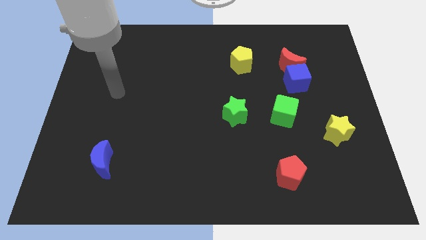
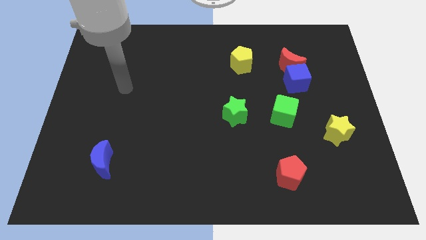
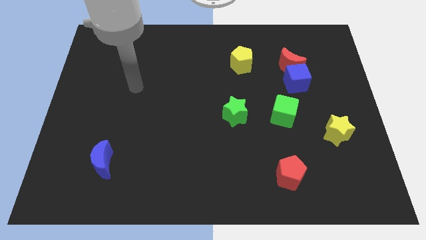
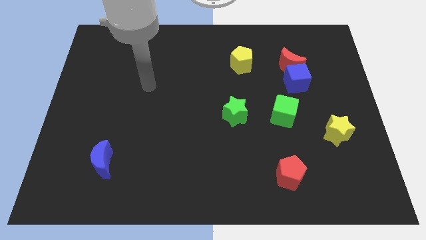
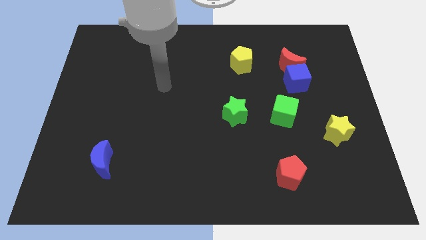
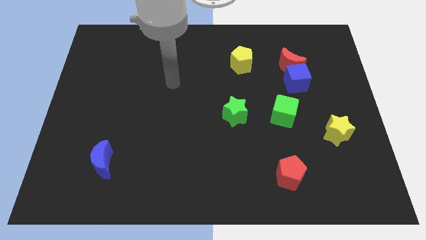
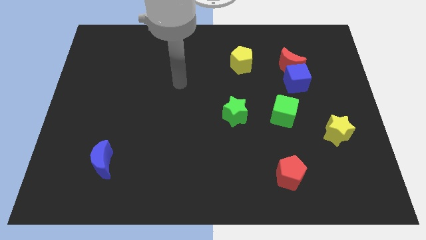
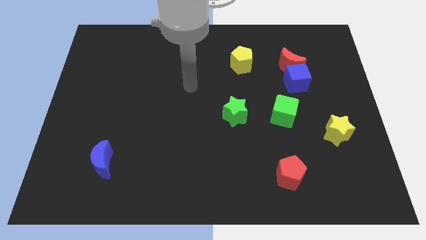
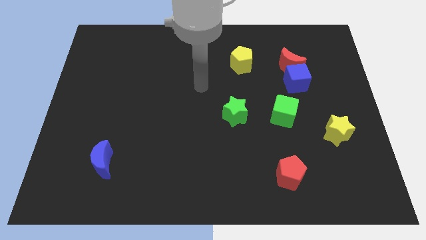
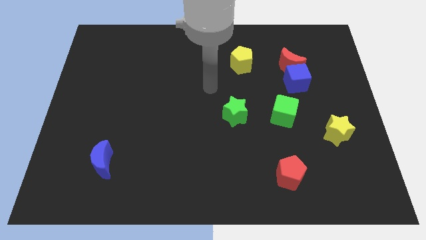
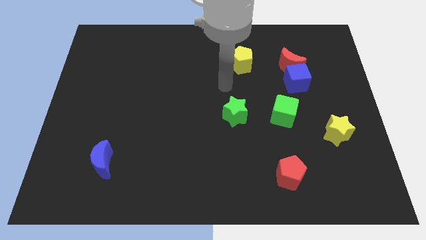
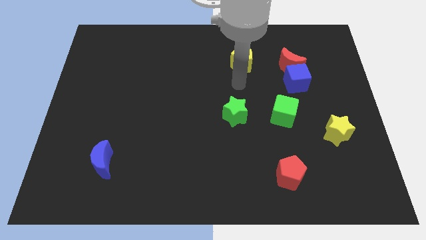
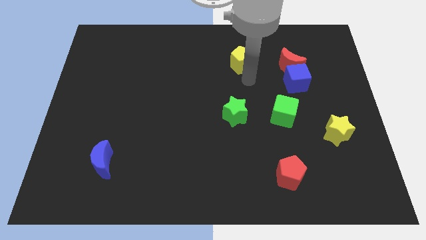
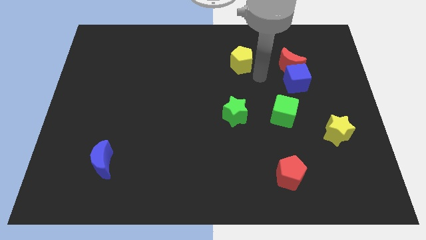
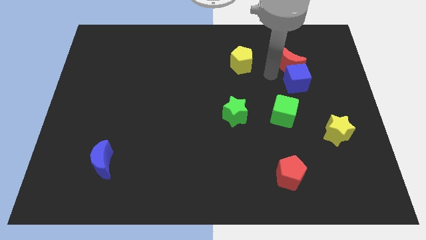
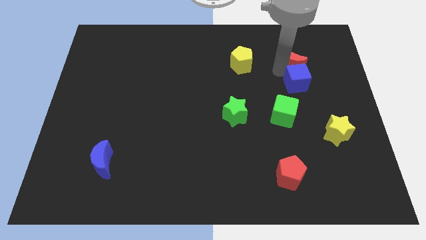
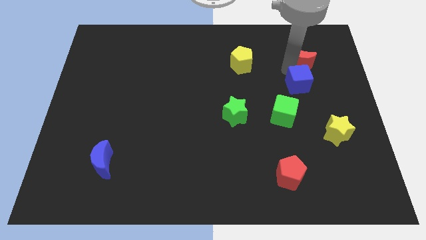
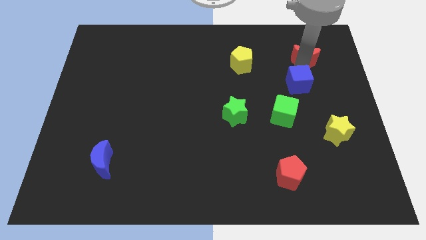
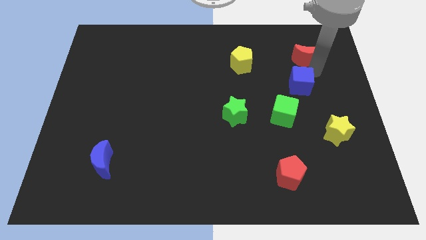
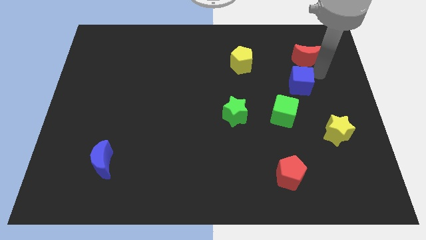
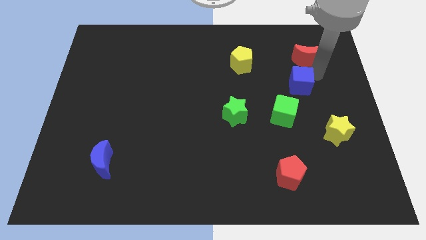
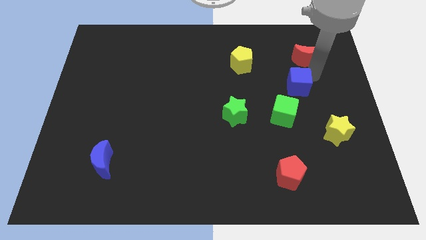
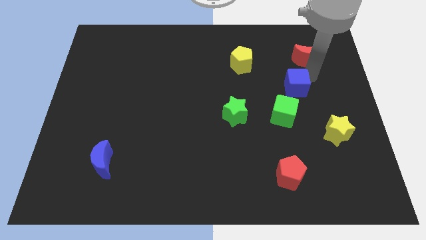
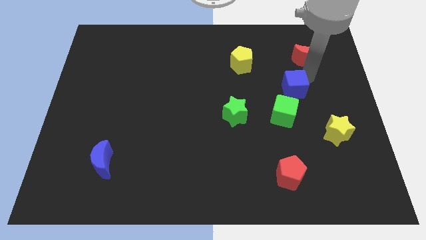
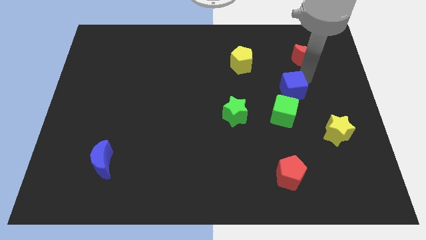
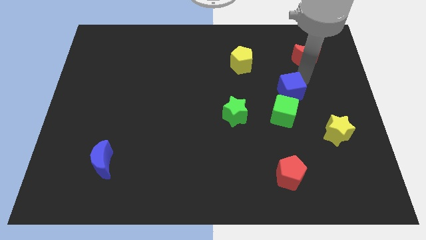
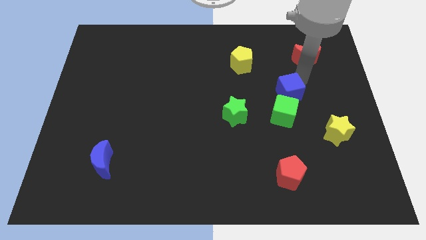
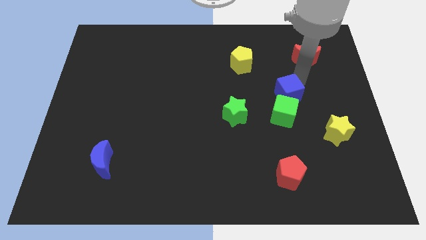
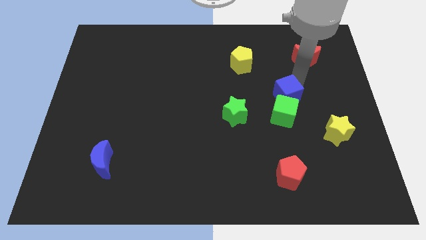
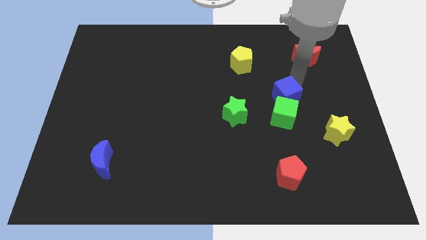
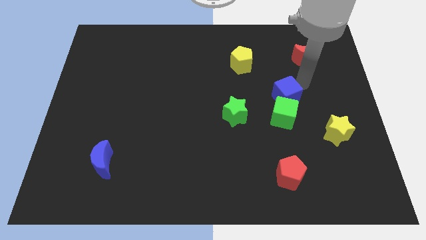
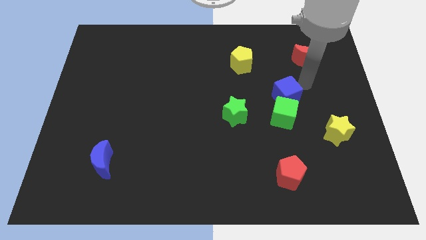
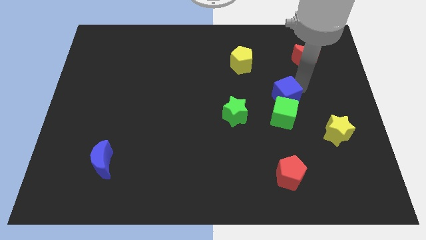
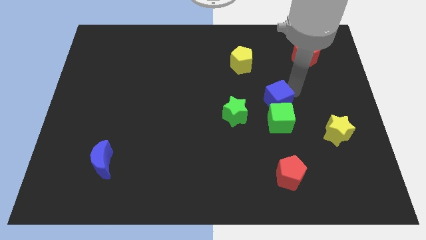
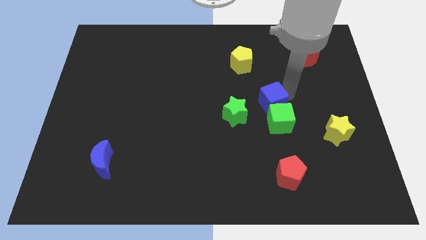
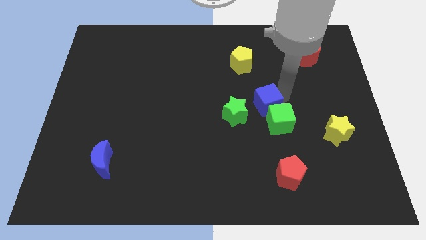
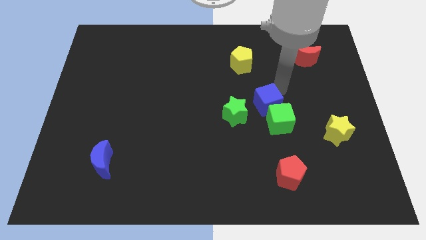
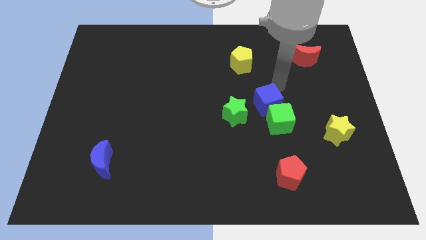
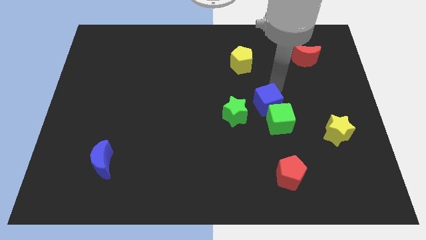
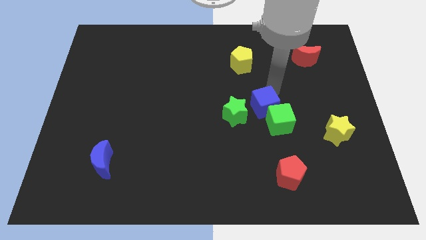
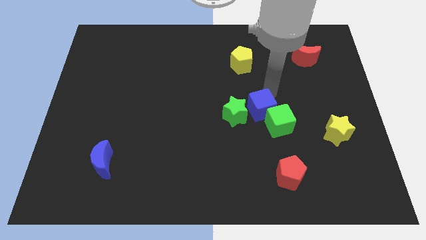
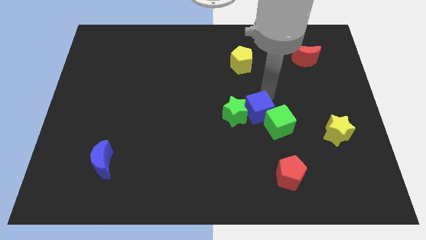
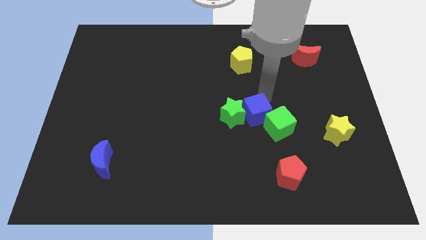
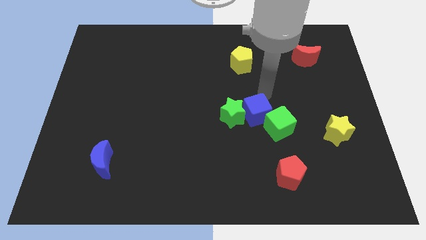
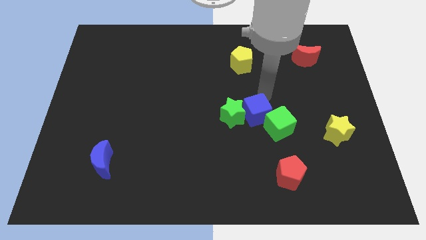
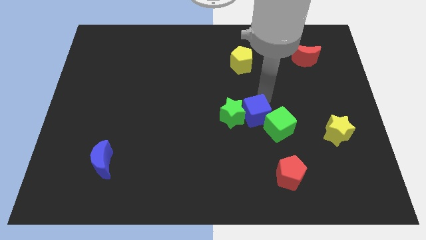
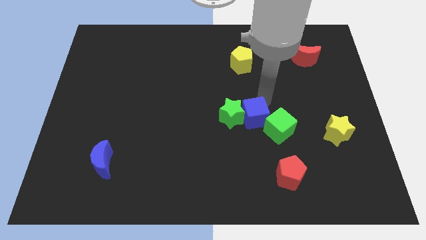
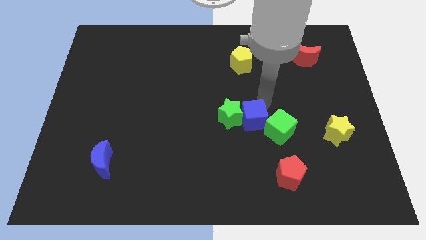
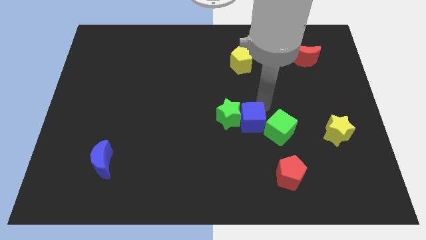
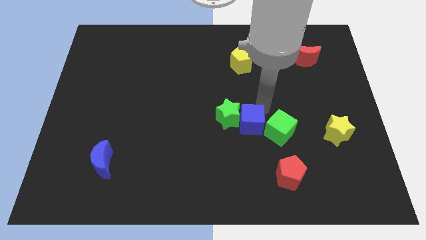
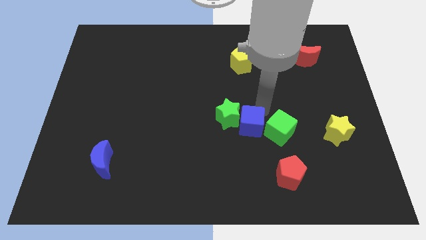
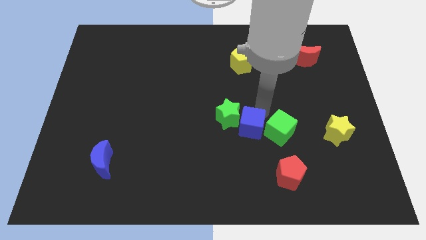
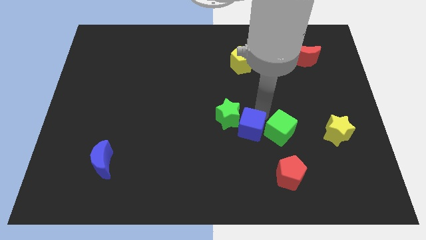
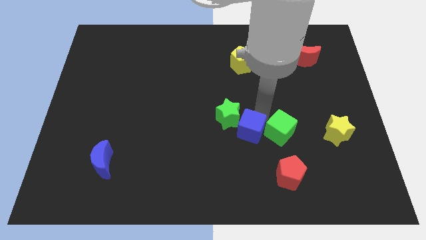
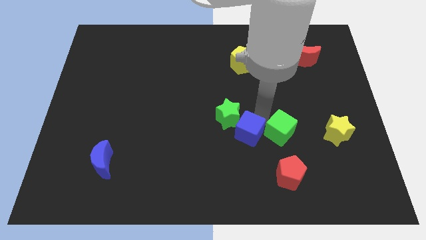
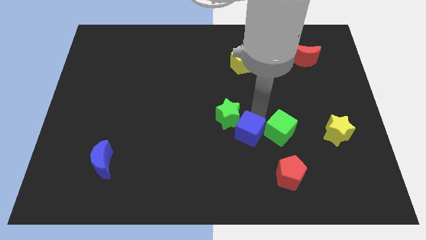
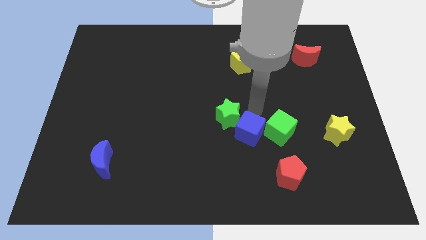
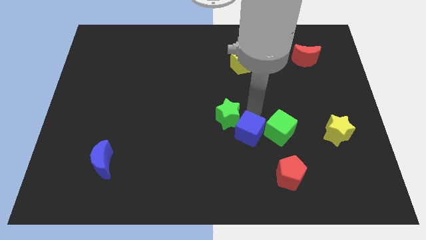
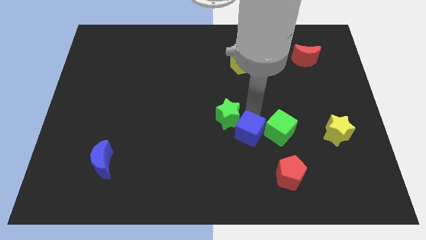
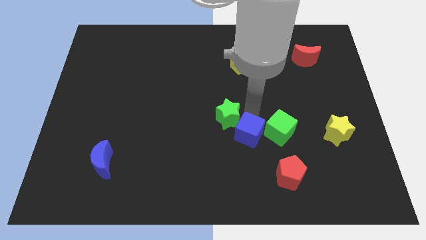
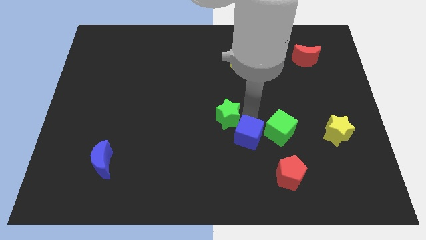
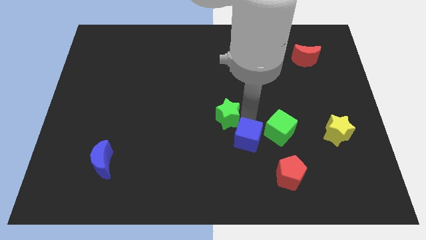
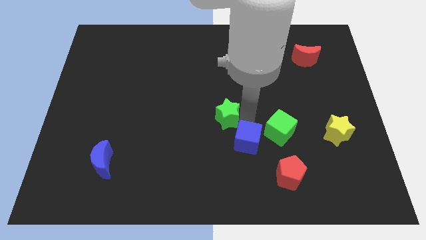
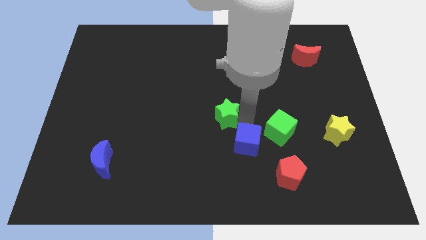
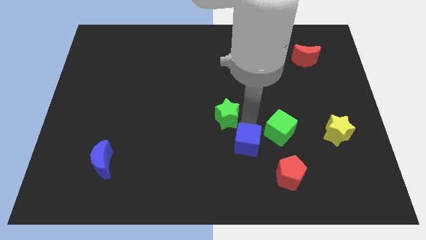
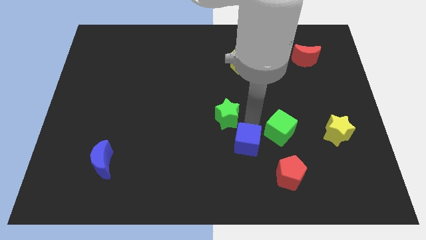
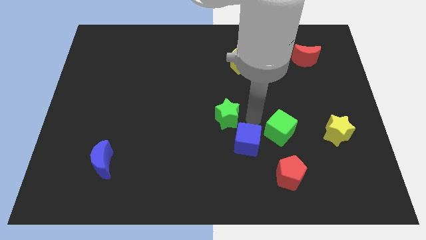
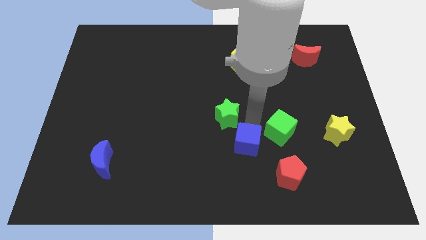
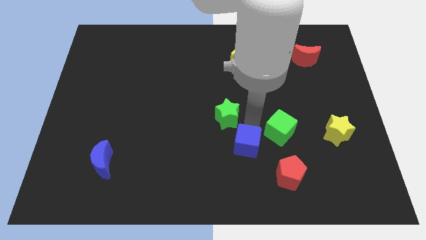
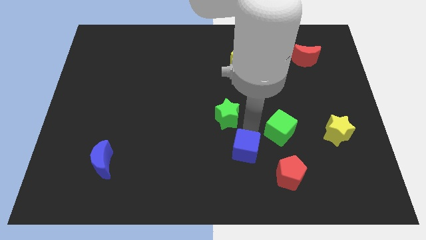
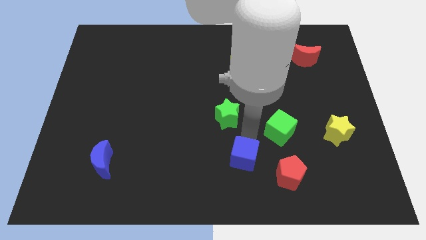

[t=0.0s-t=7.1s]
put the blue cube to the left of the red pentagon

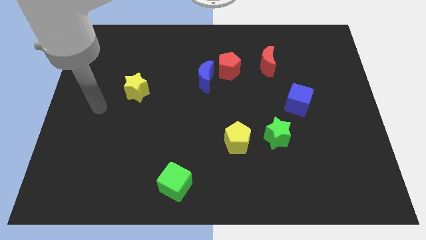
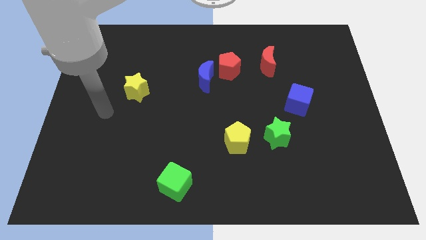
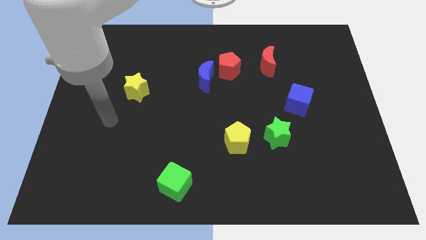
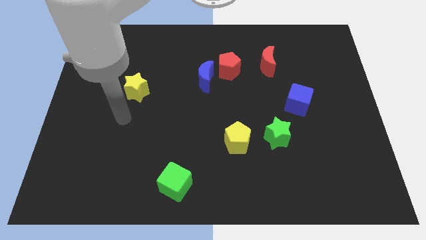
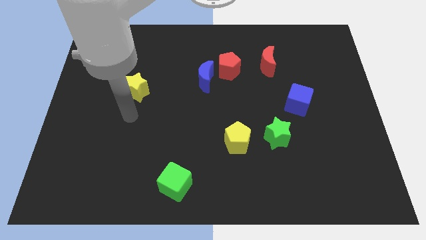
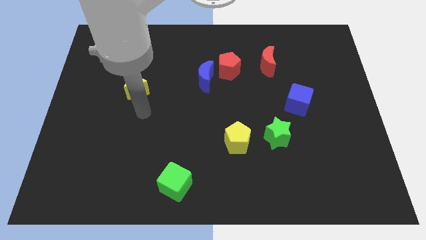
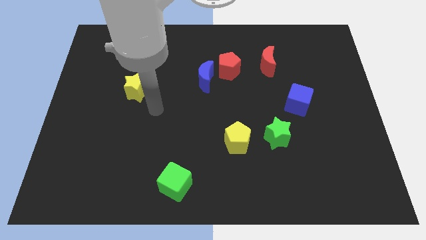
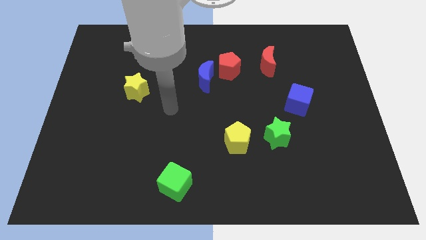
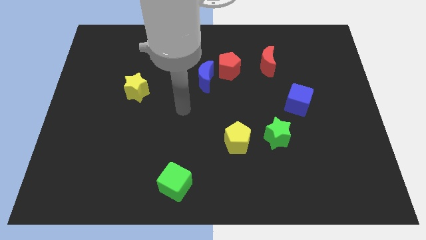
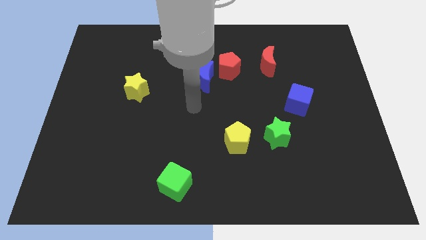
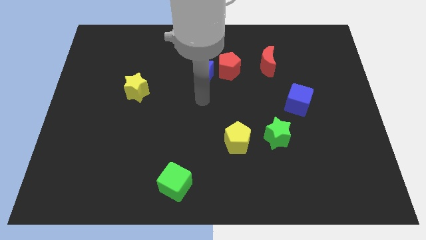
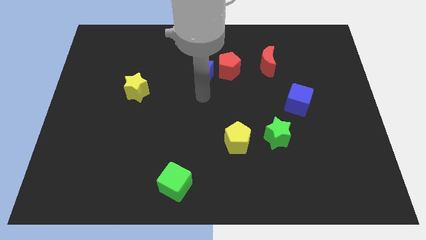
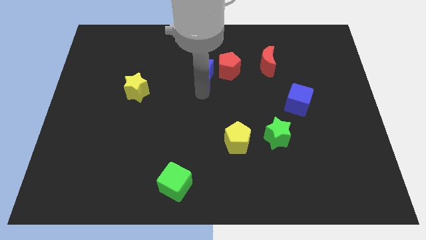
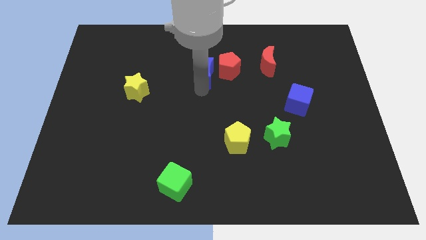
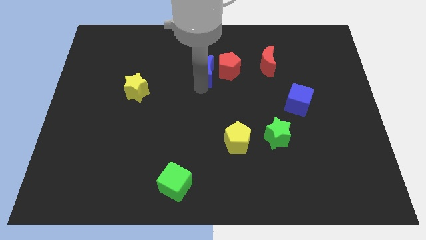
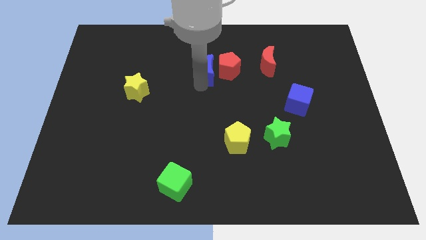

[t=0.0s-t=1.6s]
move the blue moon diagonally up and to the left of the red pentagon
